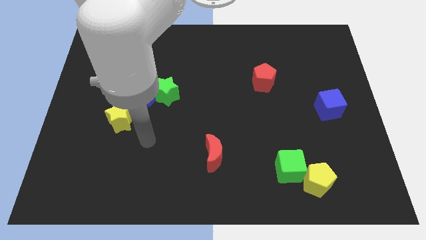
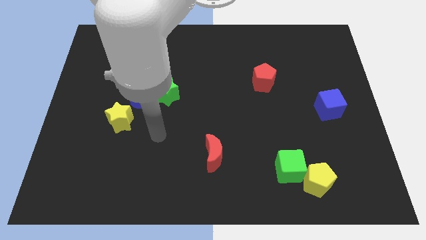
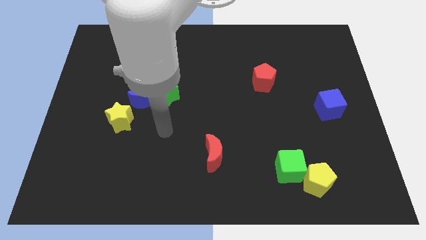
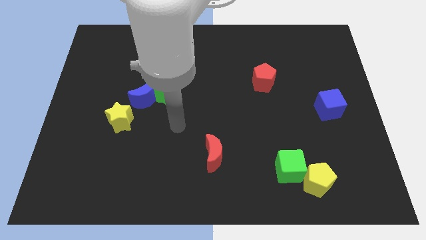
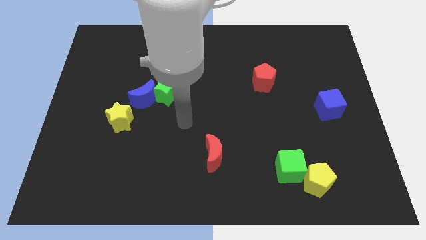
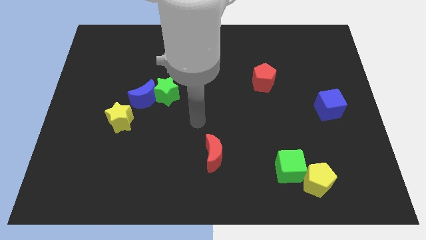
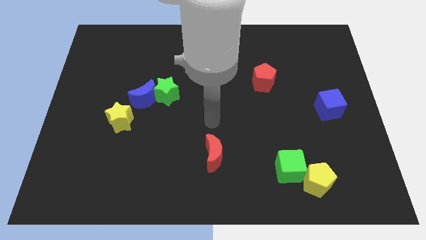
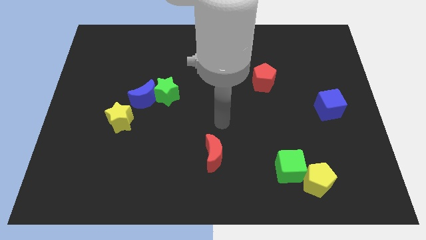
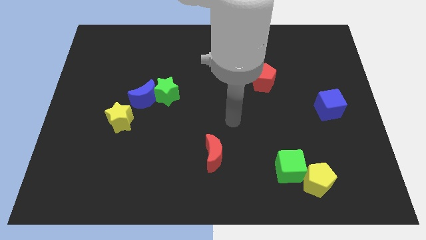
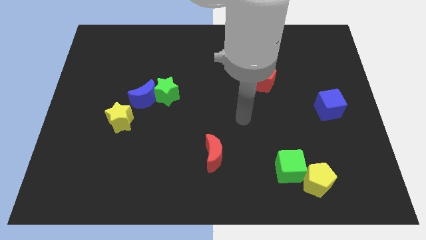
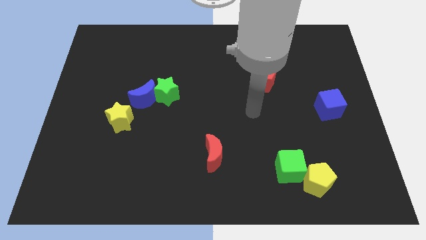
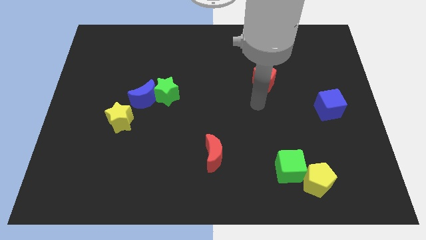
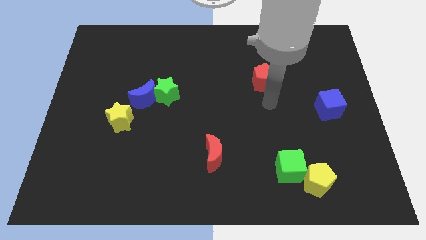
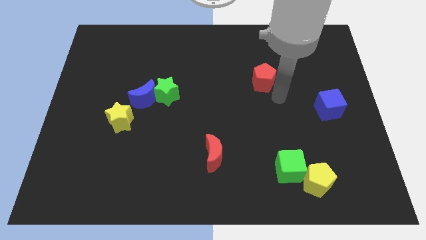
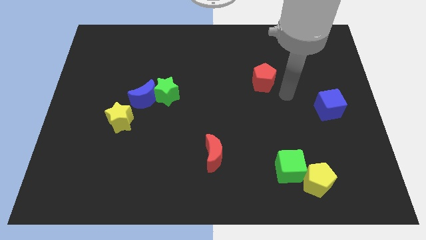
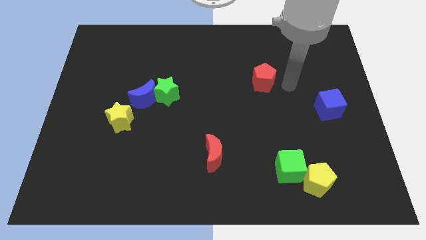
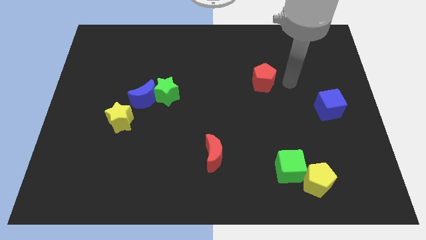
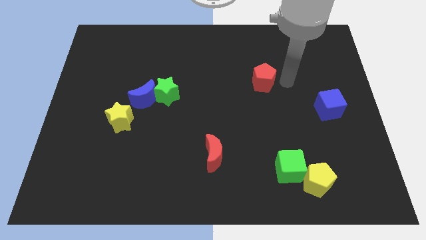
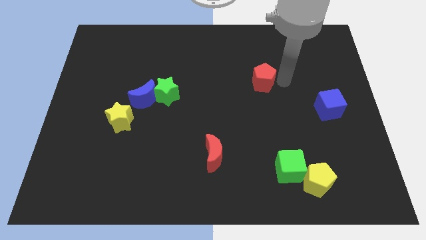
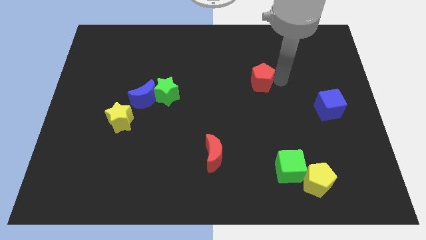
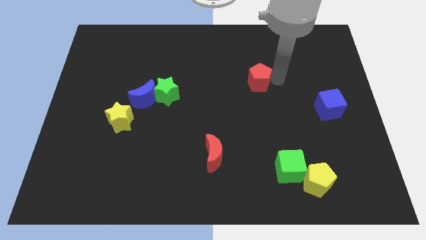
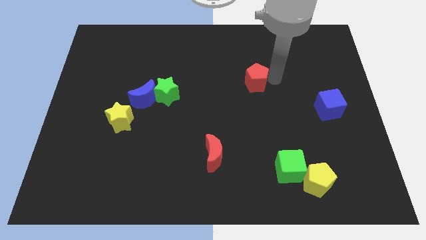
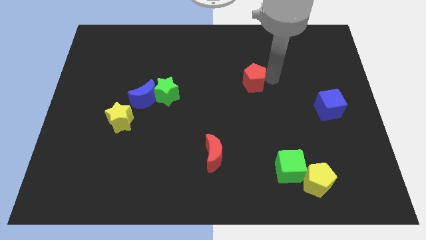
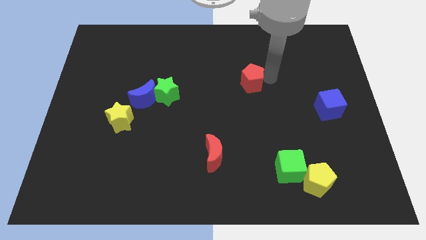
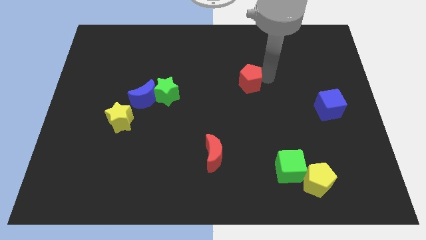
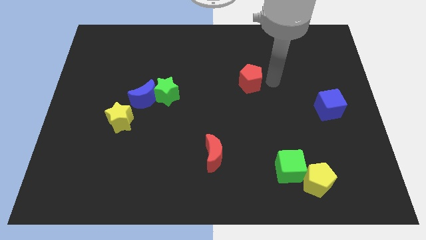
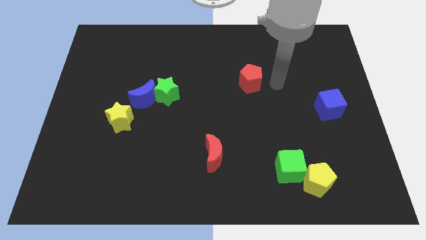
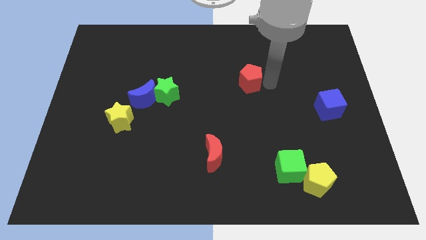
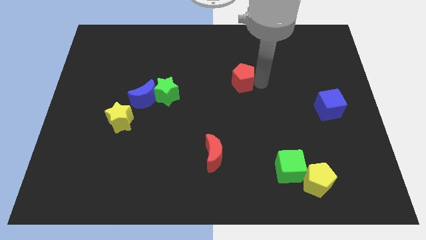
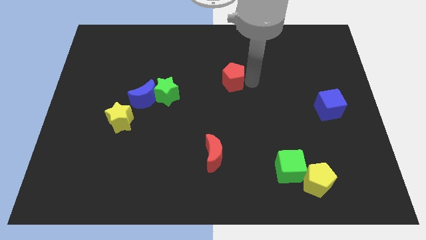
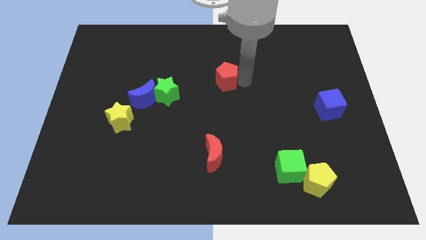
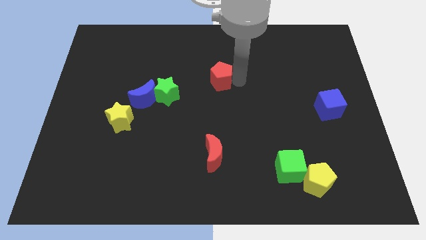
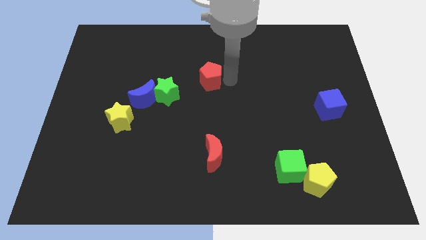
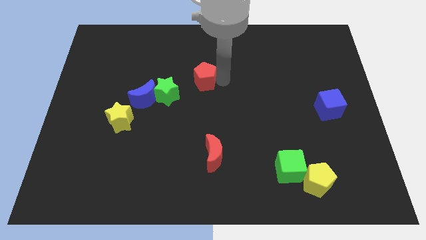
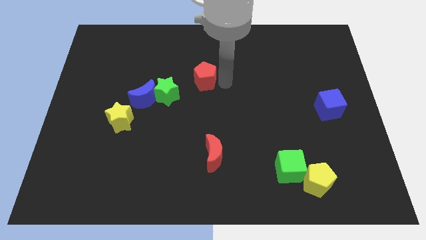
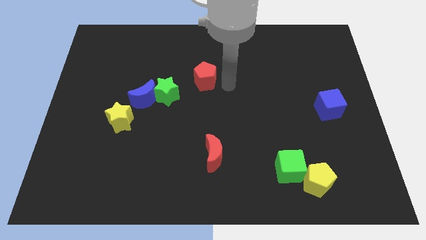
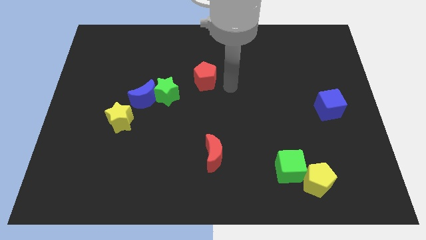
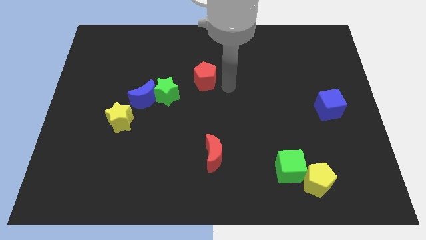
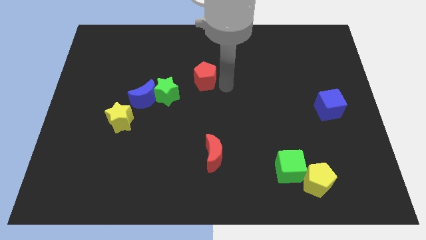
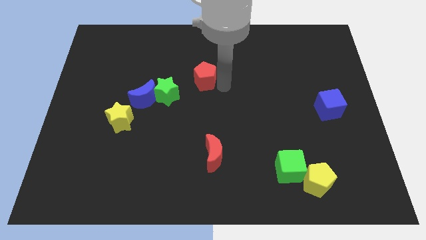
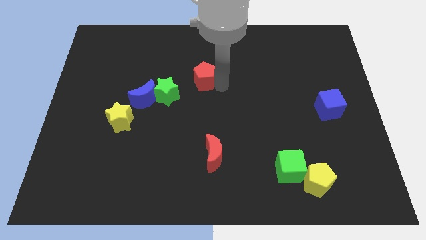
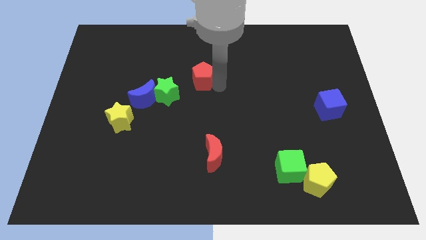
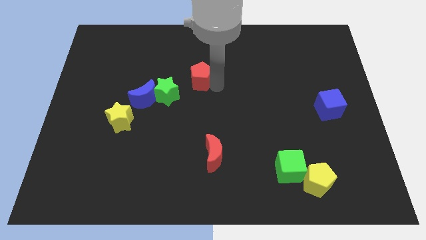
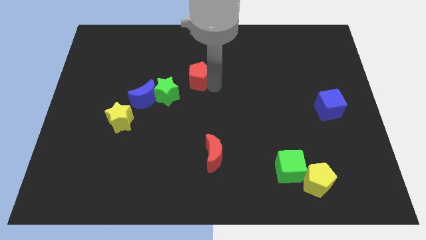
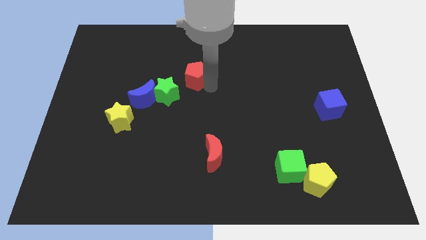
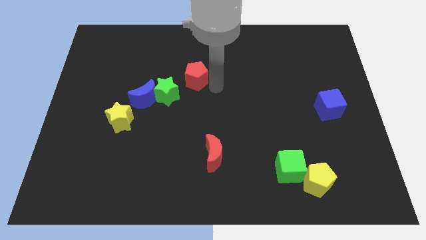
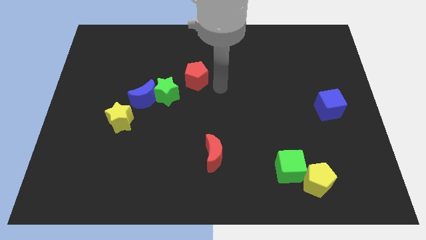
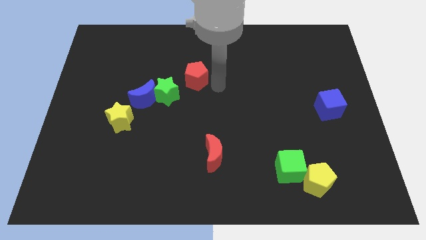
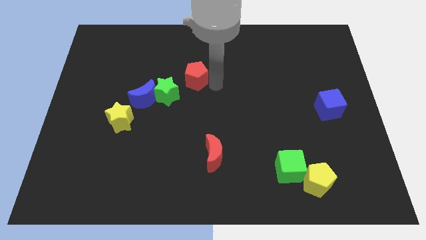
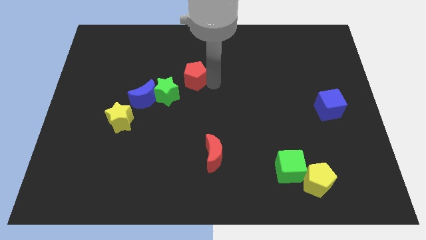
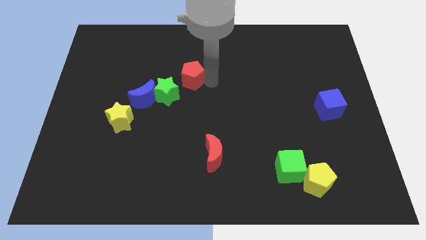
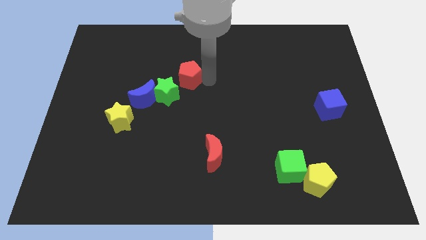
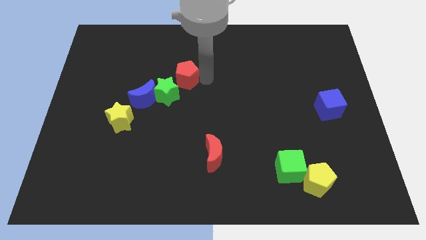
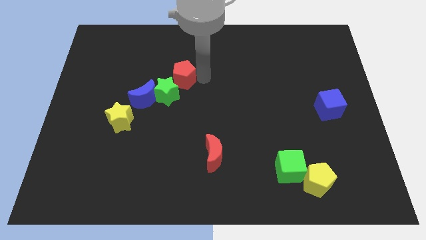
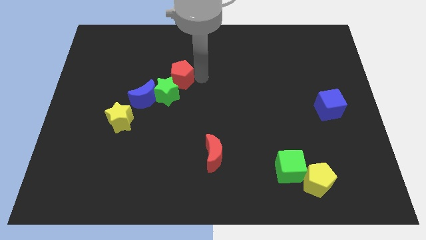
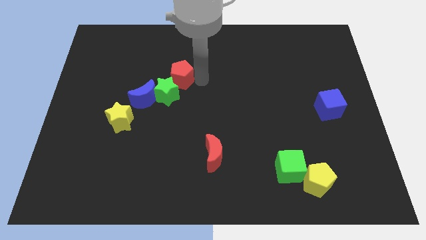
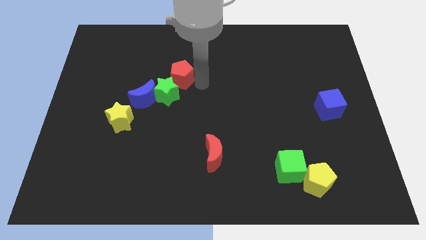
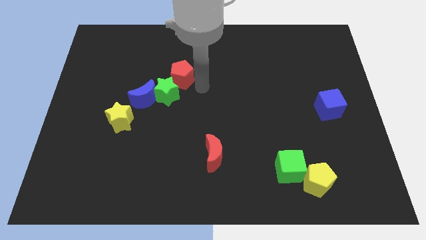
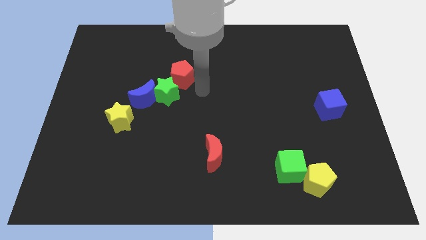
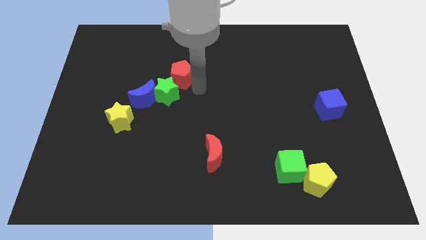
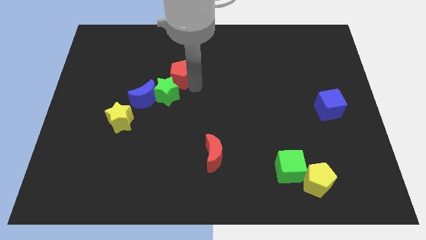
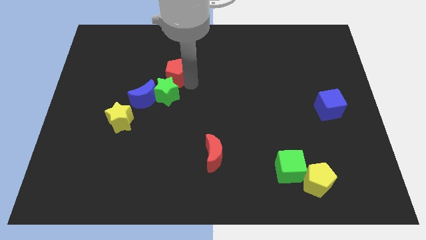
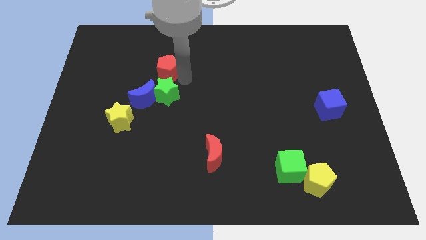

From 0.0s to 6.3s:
move the red pentagon above the blue moon

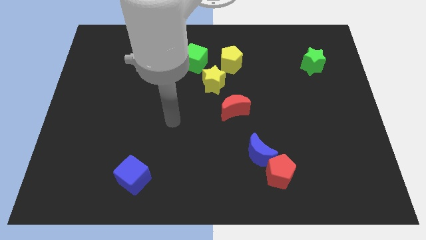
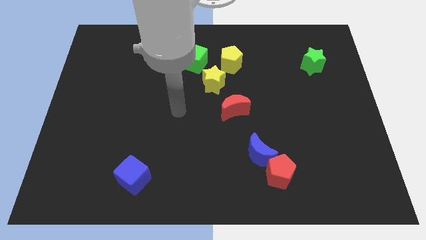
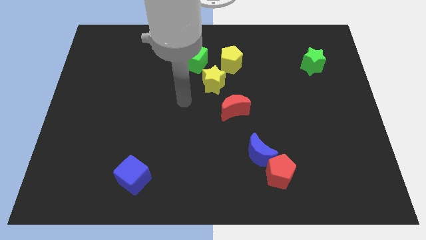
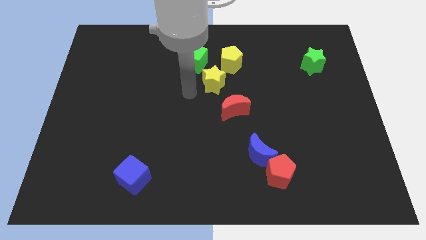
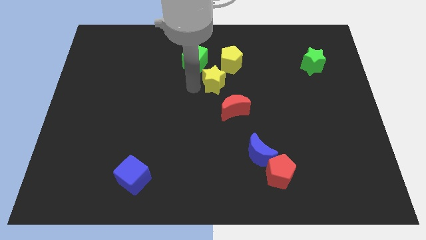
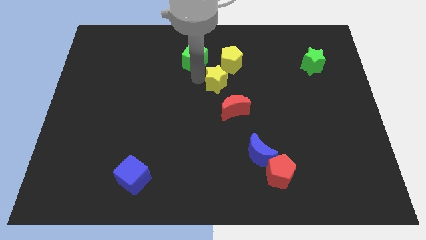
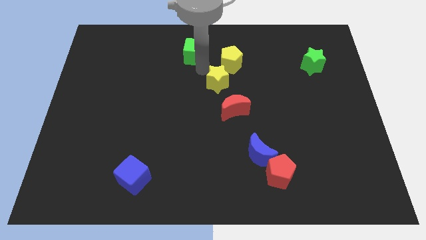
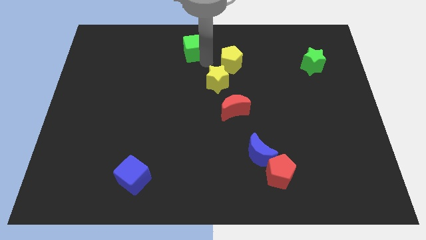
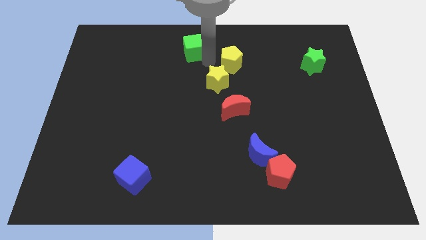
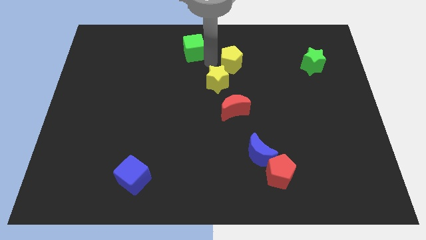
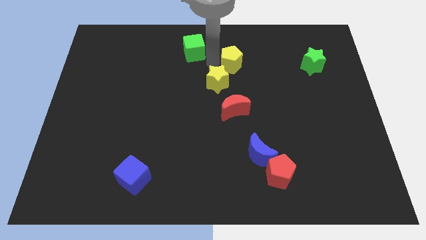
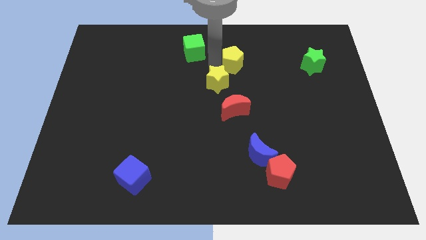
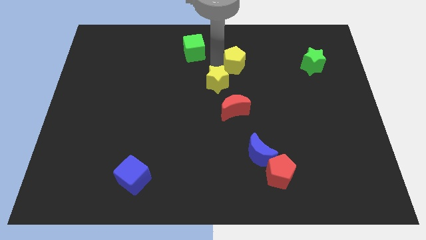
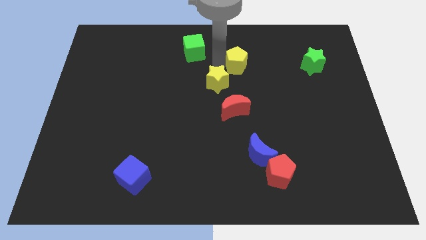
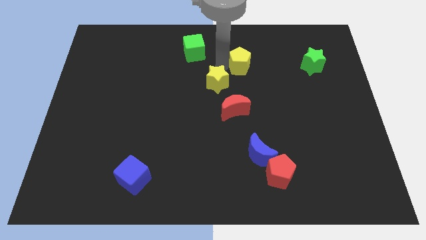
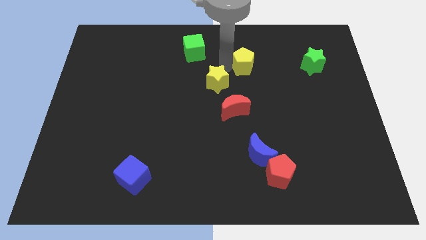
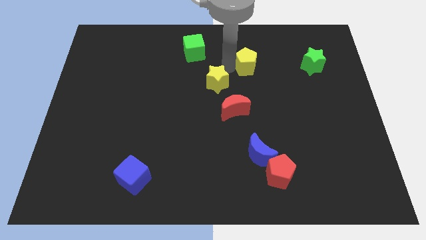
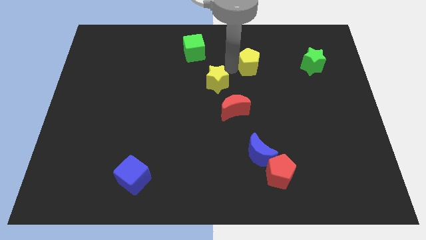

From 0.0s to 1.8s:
slide the yellow pentagon to the left side of the green star
